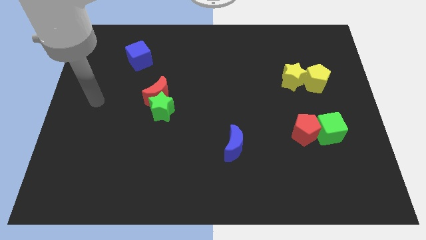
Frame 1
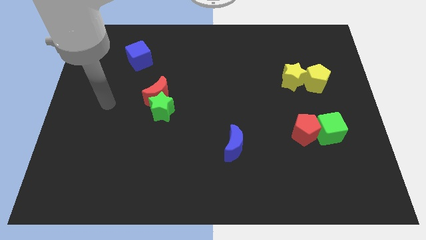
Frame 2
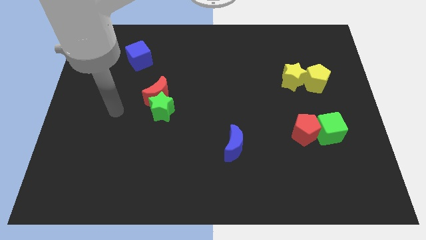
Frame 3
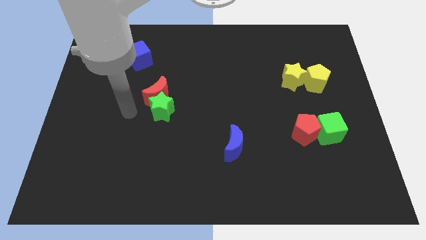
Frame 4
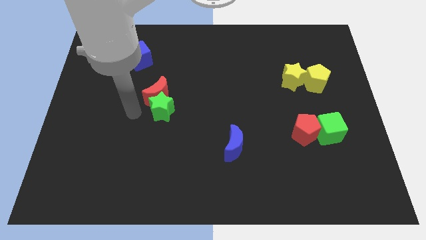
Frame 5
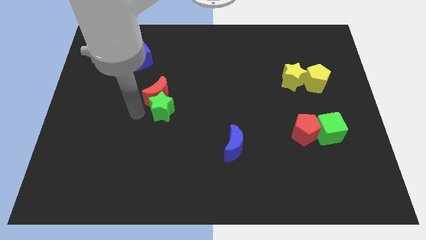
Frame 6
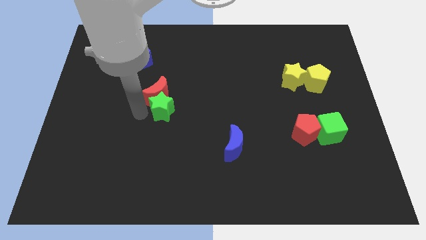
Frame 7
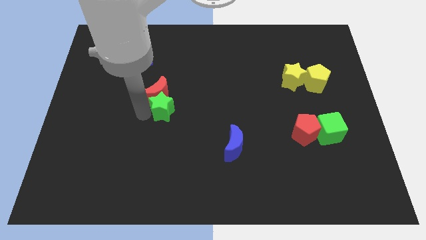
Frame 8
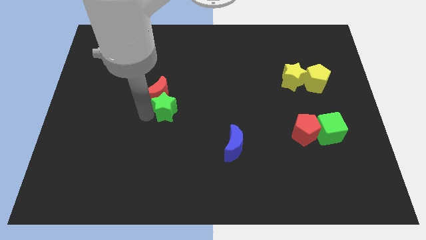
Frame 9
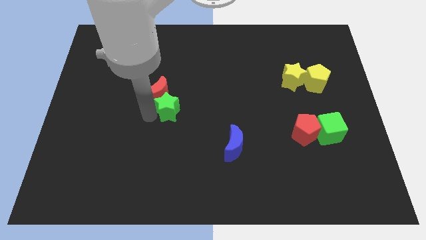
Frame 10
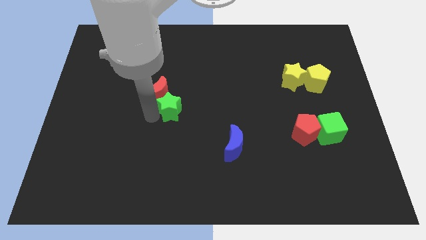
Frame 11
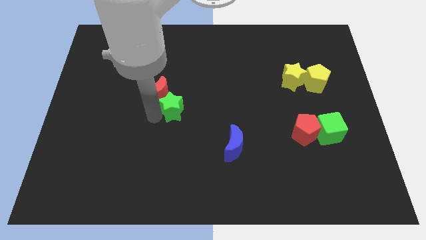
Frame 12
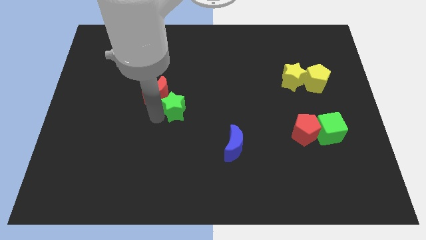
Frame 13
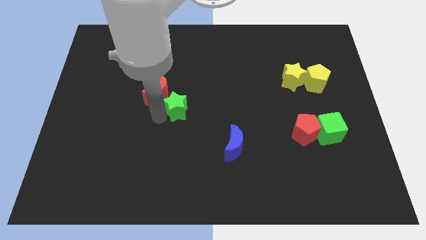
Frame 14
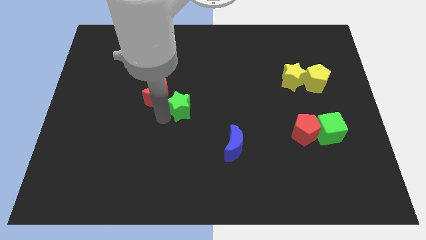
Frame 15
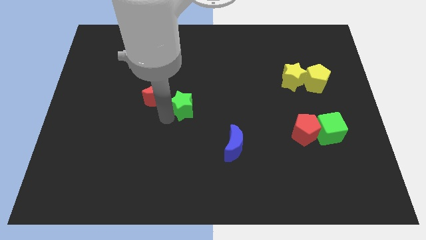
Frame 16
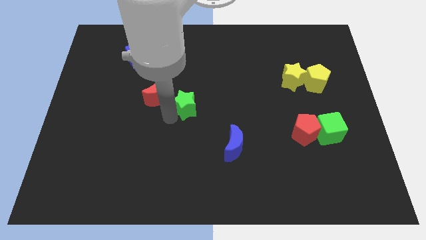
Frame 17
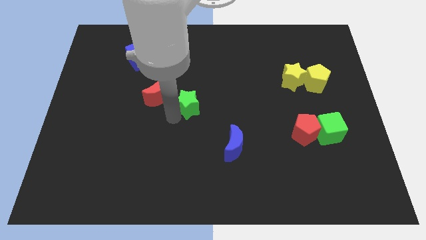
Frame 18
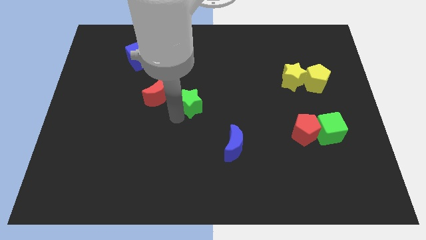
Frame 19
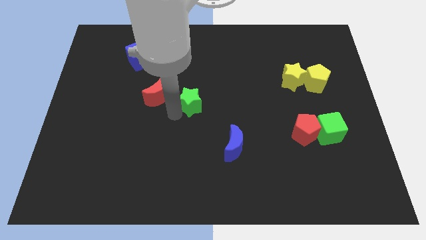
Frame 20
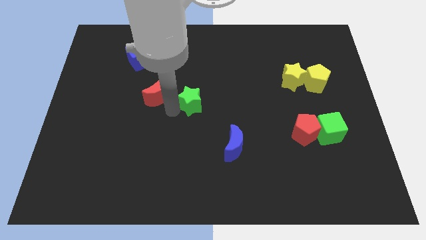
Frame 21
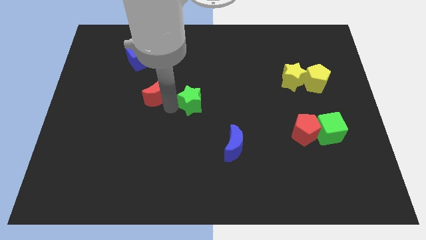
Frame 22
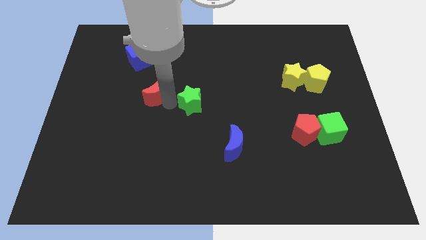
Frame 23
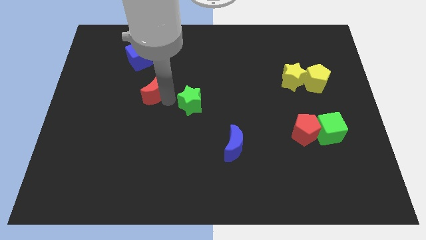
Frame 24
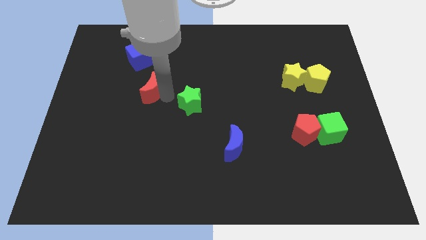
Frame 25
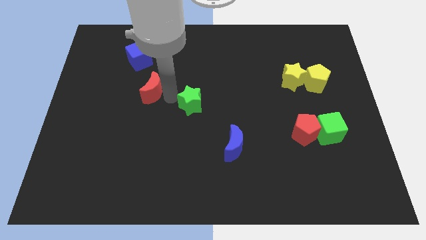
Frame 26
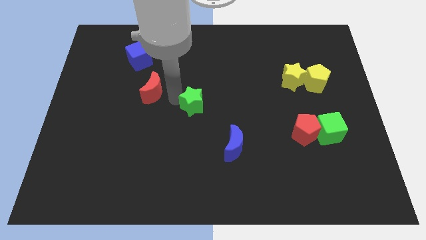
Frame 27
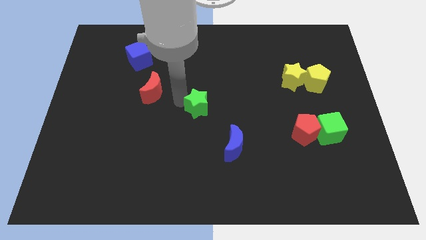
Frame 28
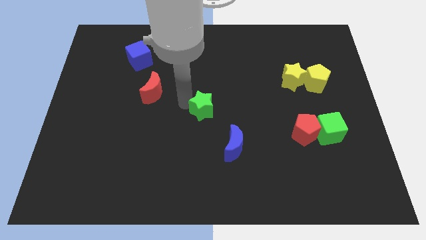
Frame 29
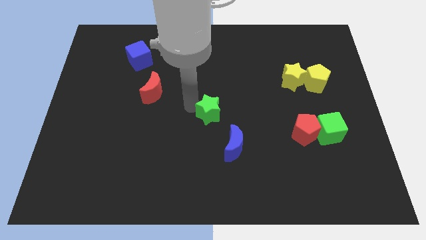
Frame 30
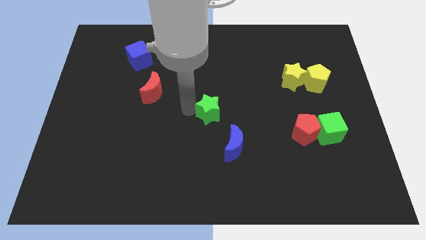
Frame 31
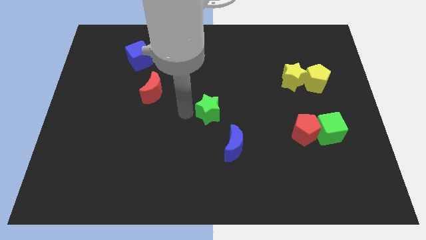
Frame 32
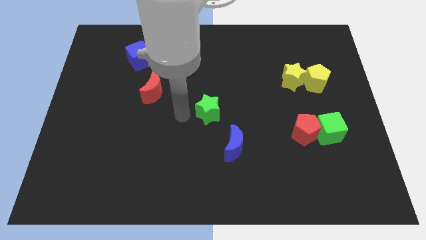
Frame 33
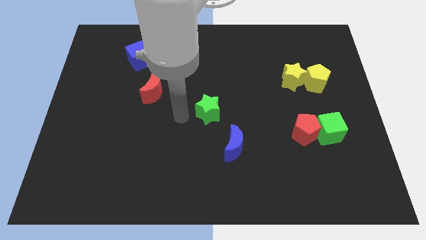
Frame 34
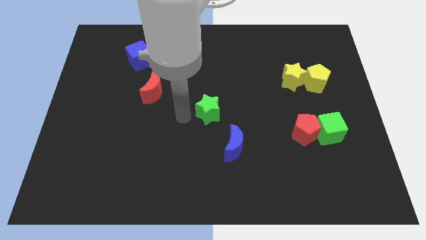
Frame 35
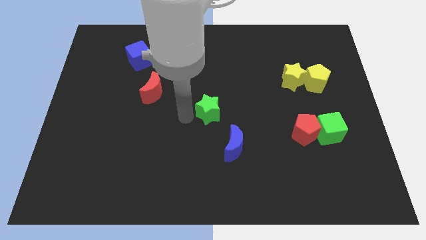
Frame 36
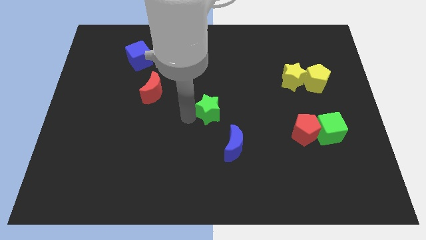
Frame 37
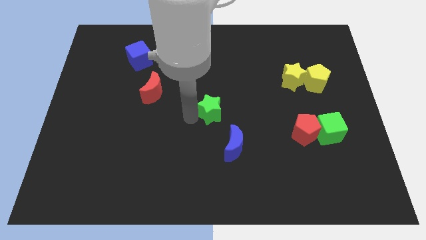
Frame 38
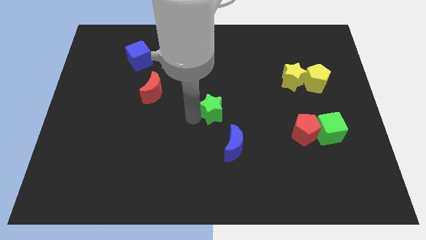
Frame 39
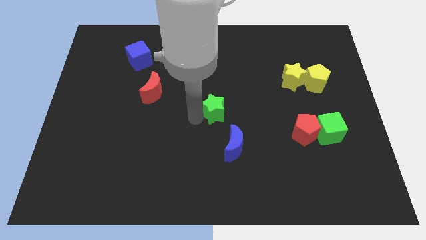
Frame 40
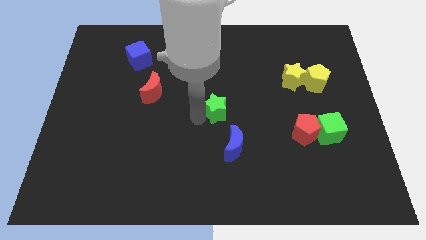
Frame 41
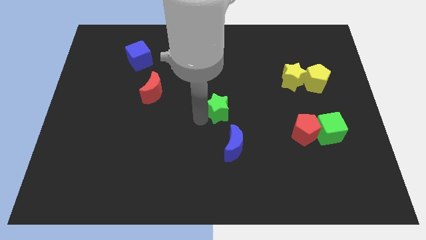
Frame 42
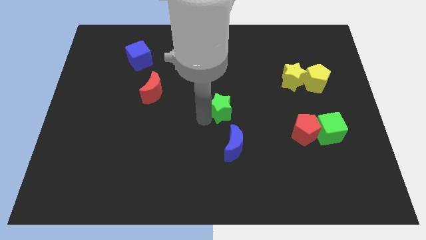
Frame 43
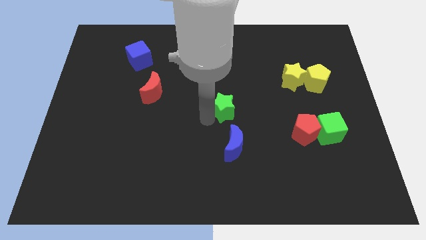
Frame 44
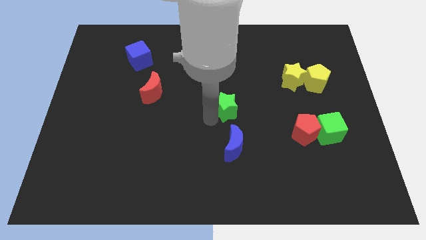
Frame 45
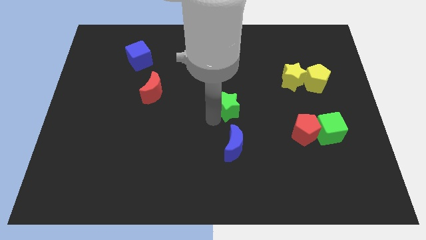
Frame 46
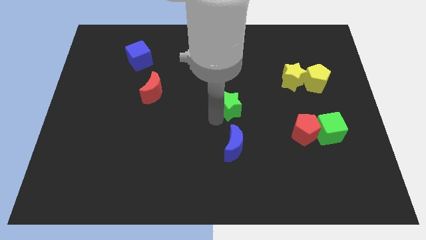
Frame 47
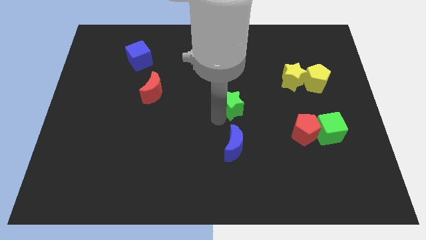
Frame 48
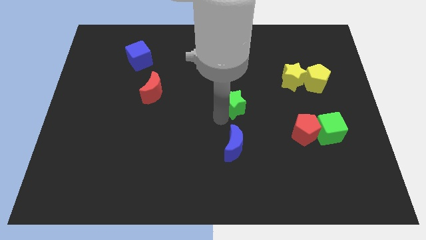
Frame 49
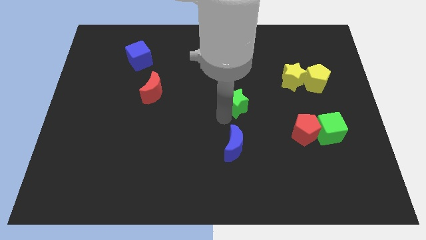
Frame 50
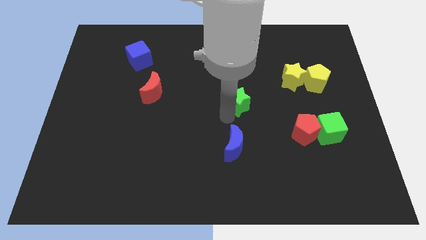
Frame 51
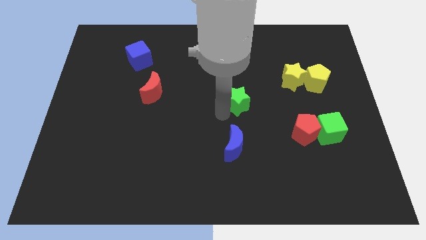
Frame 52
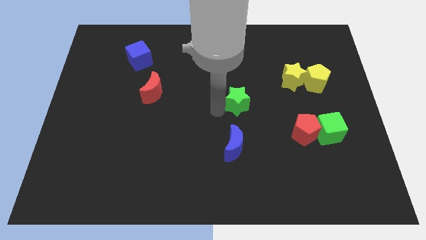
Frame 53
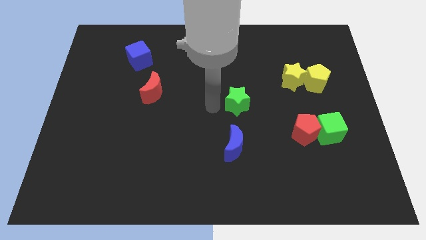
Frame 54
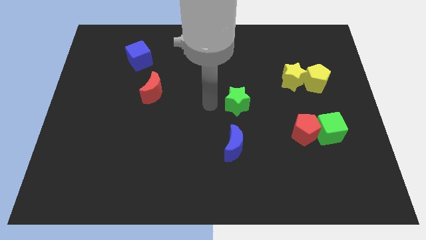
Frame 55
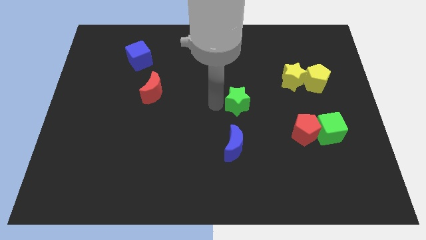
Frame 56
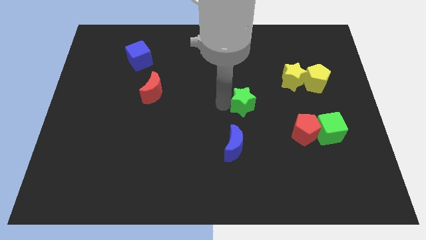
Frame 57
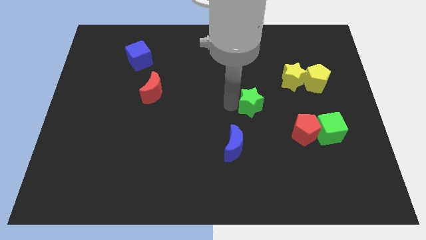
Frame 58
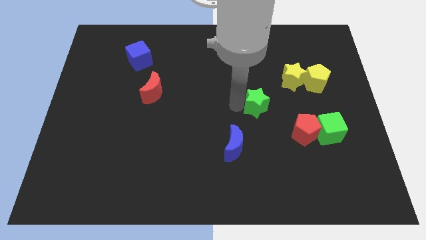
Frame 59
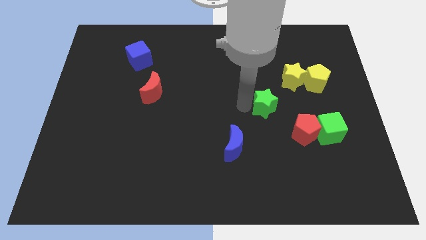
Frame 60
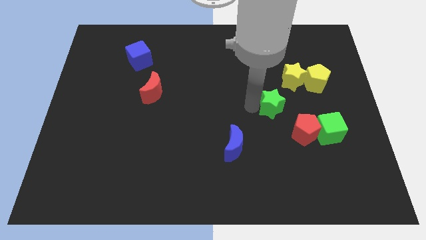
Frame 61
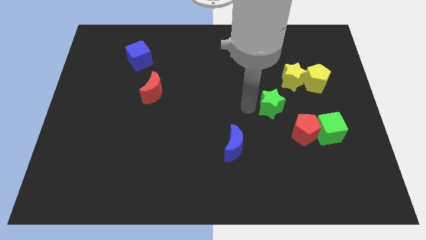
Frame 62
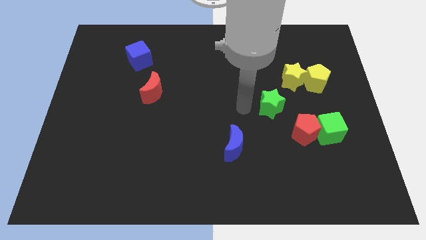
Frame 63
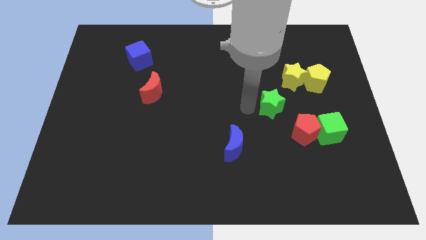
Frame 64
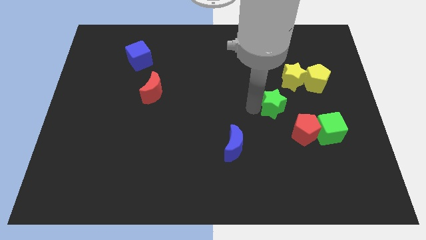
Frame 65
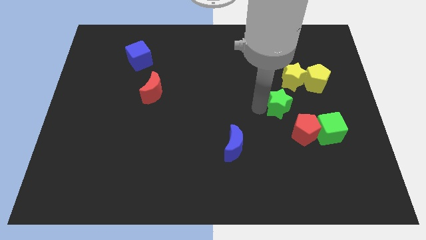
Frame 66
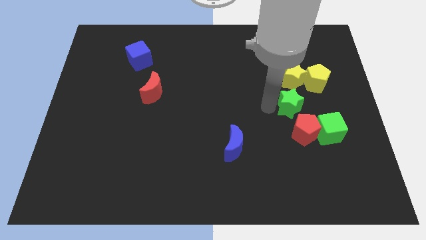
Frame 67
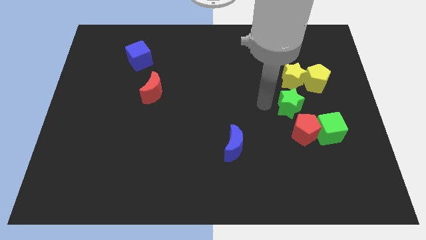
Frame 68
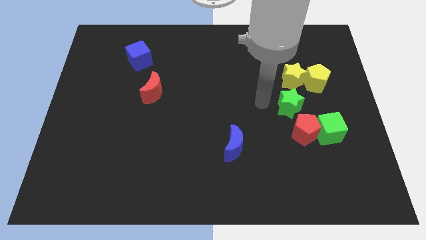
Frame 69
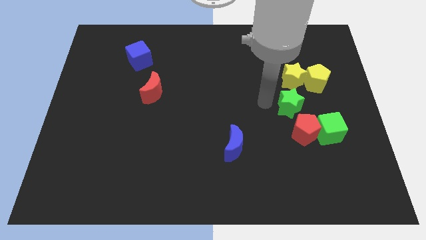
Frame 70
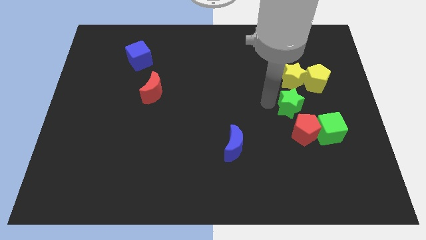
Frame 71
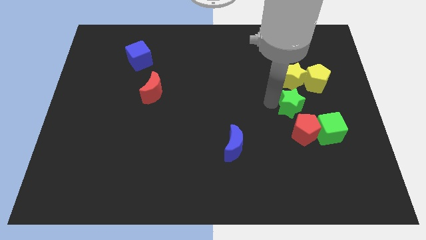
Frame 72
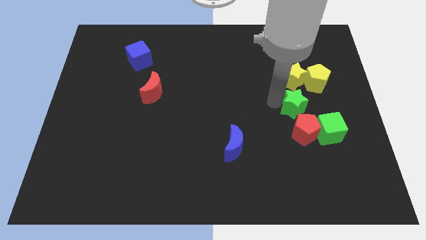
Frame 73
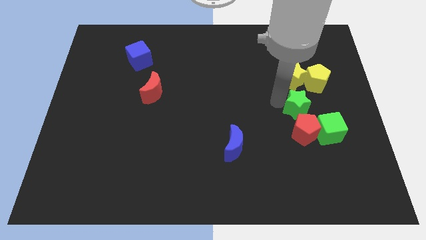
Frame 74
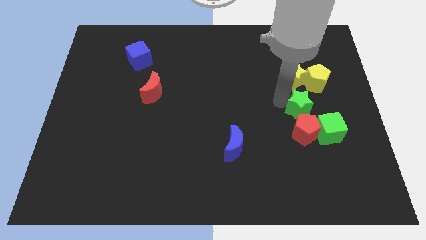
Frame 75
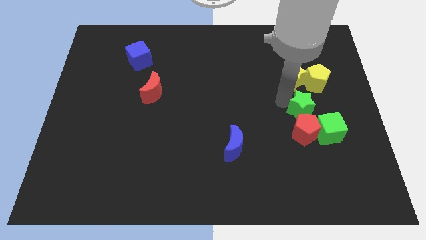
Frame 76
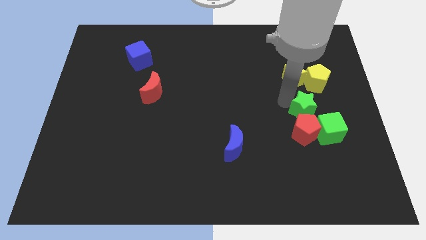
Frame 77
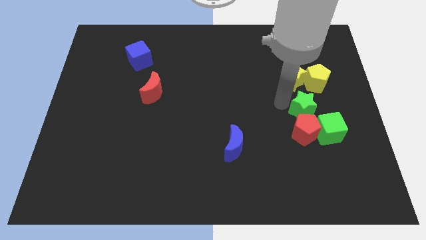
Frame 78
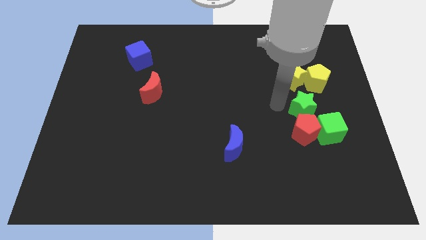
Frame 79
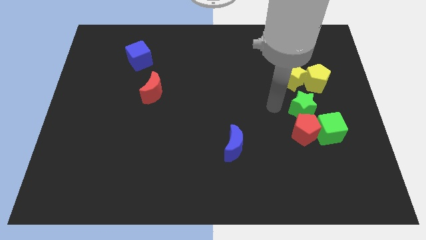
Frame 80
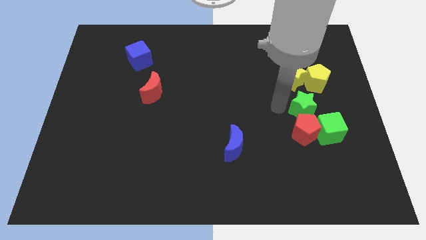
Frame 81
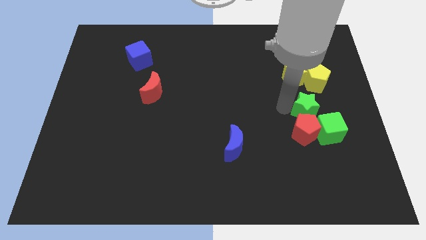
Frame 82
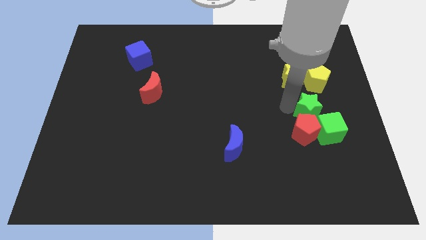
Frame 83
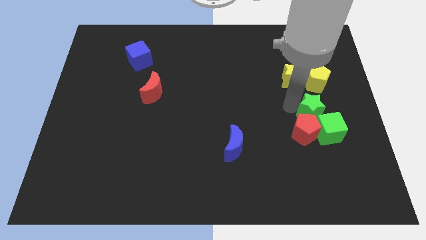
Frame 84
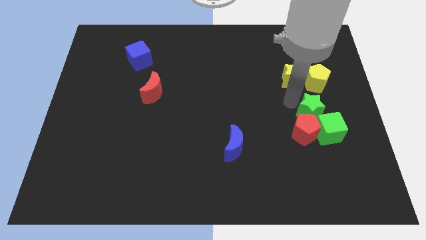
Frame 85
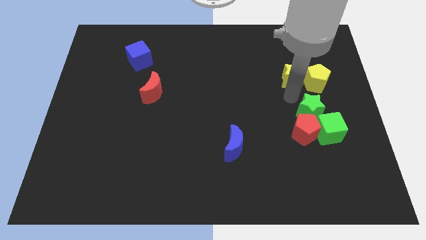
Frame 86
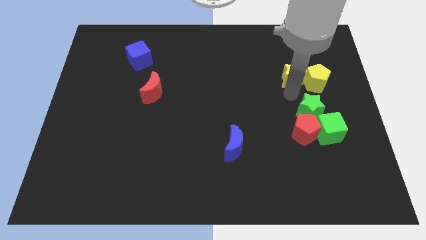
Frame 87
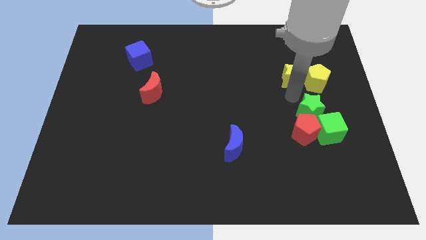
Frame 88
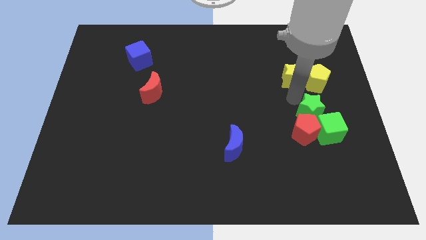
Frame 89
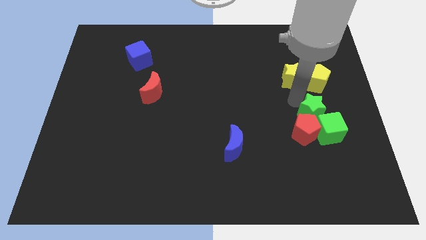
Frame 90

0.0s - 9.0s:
push the green star to the green cube
